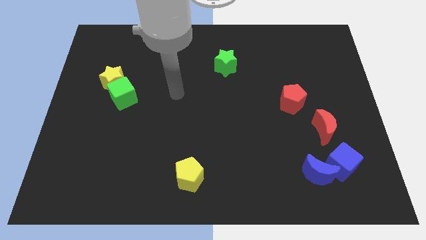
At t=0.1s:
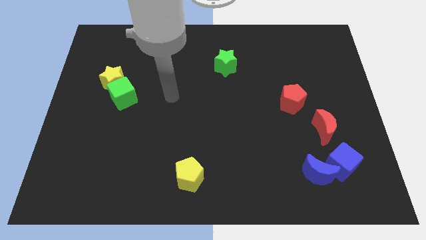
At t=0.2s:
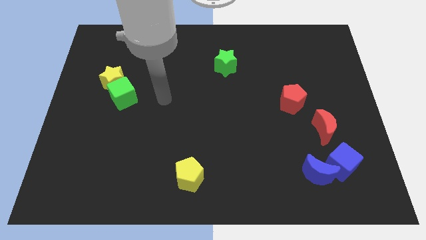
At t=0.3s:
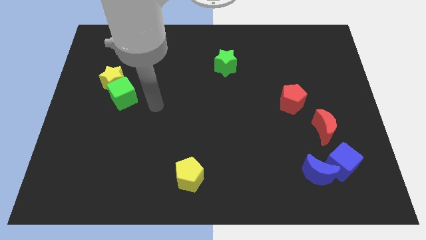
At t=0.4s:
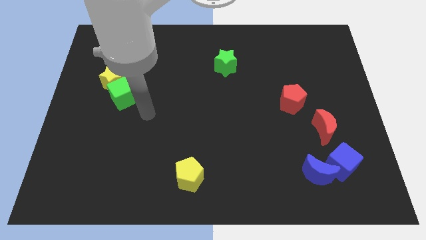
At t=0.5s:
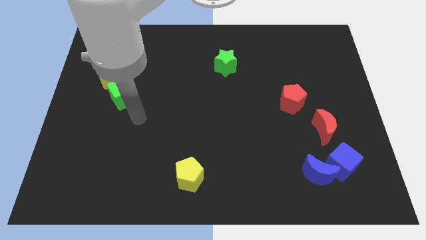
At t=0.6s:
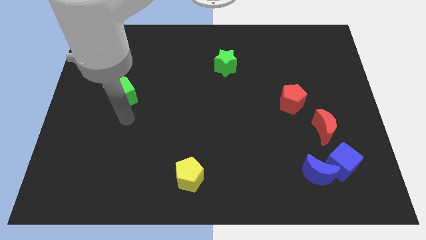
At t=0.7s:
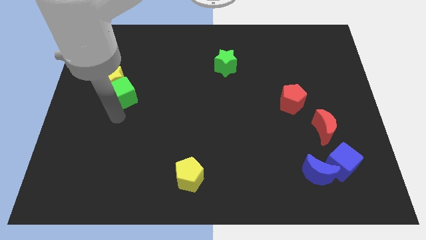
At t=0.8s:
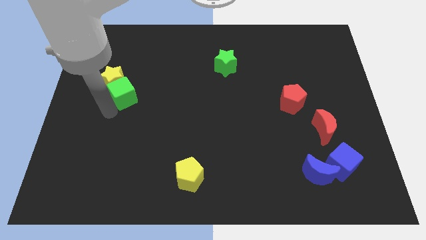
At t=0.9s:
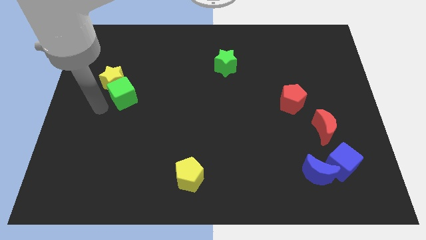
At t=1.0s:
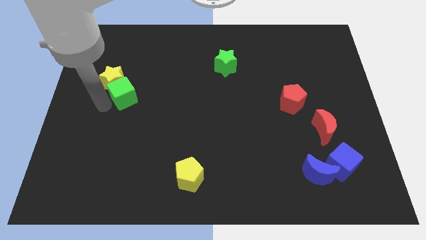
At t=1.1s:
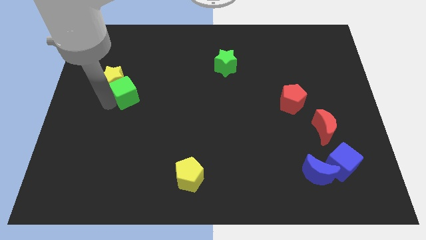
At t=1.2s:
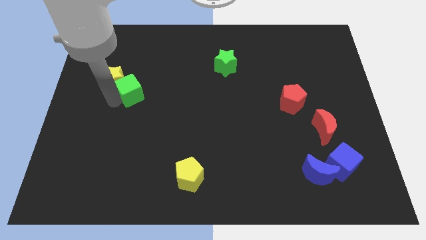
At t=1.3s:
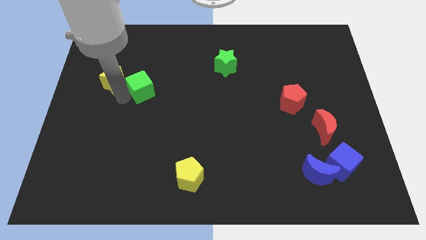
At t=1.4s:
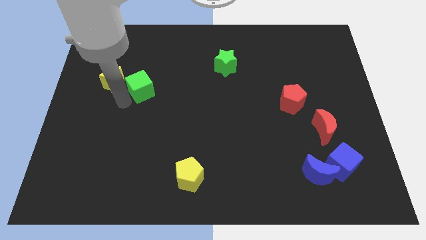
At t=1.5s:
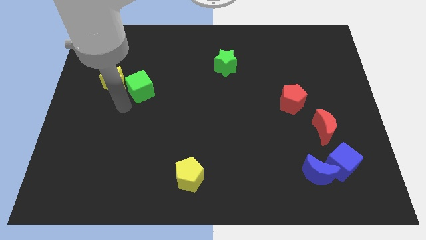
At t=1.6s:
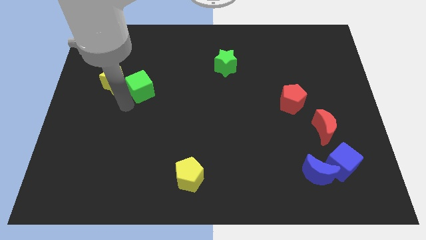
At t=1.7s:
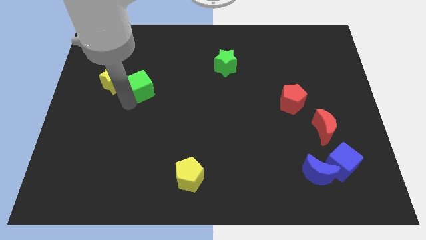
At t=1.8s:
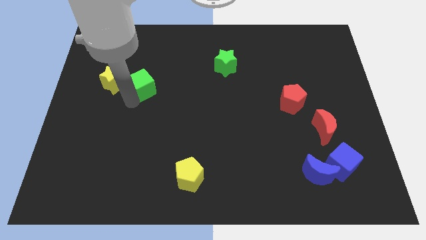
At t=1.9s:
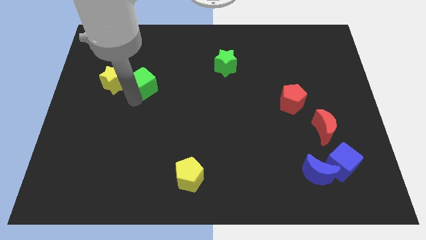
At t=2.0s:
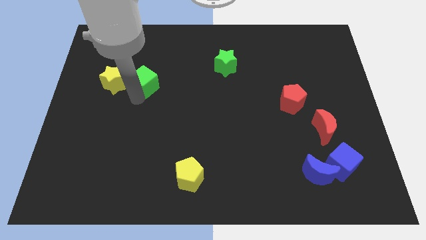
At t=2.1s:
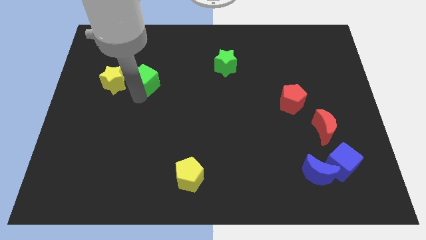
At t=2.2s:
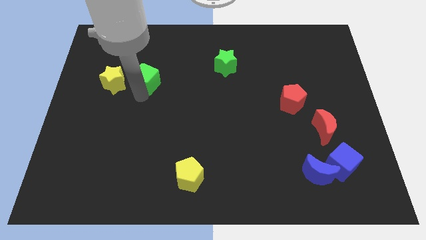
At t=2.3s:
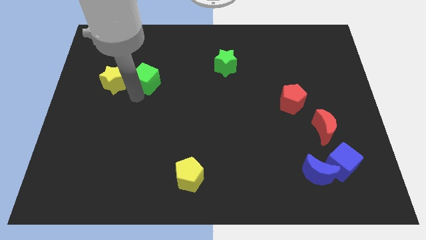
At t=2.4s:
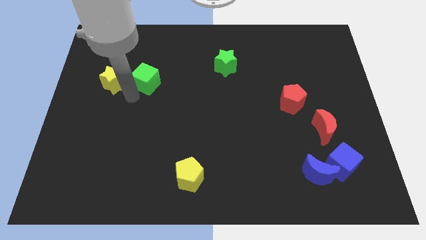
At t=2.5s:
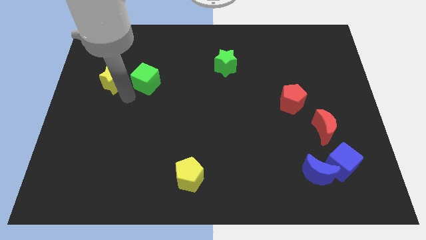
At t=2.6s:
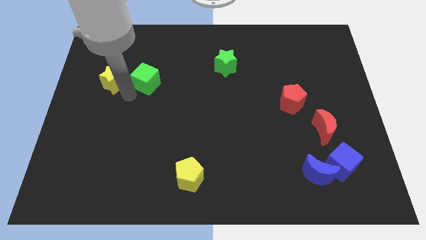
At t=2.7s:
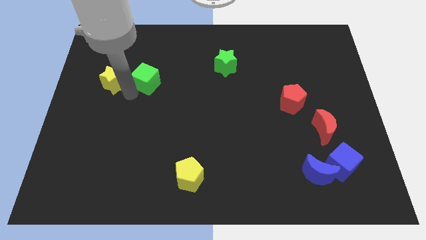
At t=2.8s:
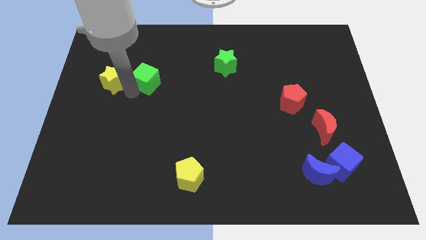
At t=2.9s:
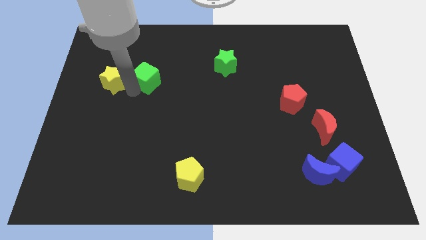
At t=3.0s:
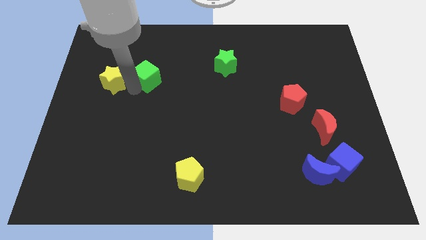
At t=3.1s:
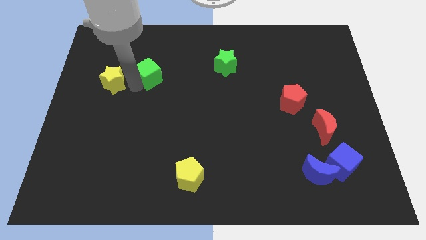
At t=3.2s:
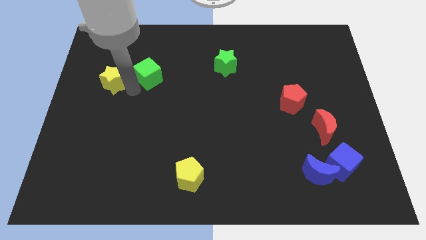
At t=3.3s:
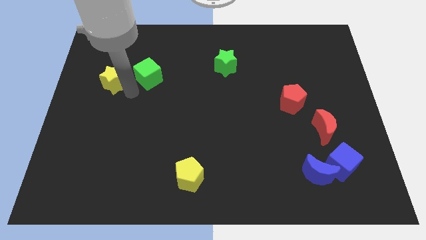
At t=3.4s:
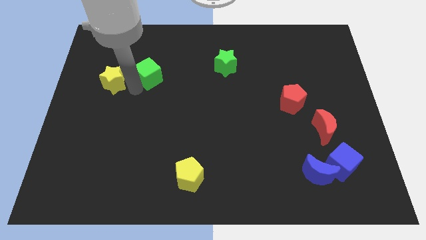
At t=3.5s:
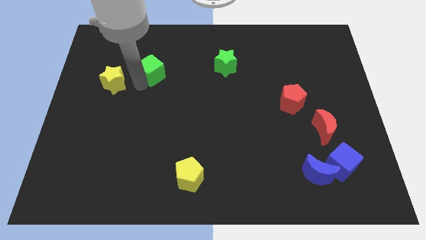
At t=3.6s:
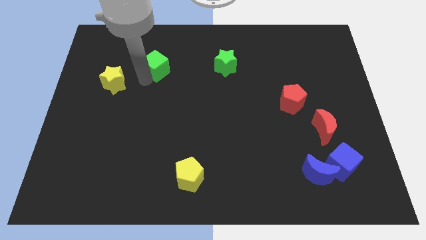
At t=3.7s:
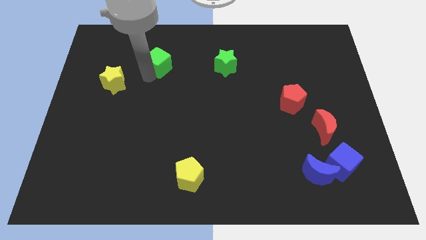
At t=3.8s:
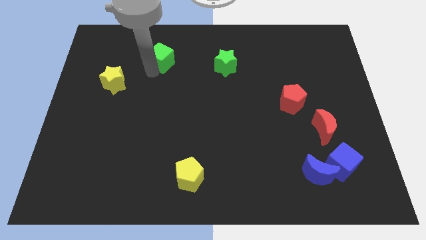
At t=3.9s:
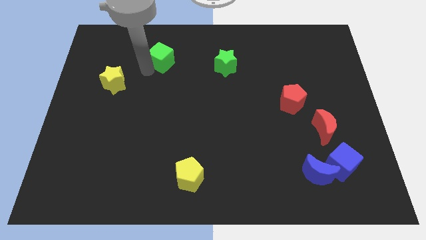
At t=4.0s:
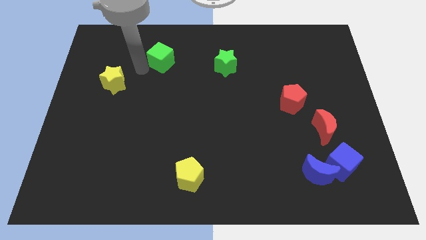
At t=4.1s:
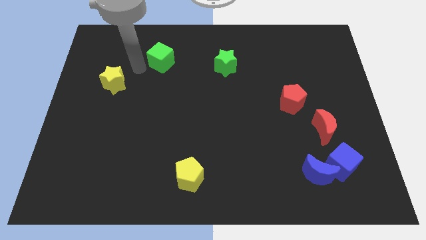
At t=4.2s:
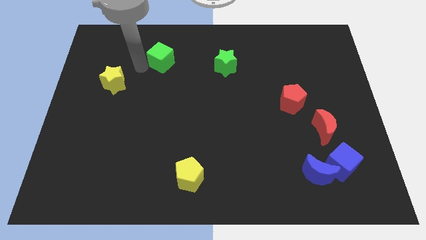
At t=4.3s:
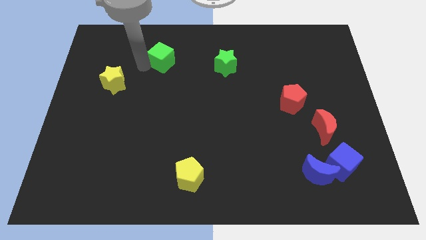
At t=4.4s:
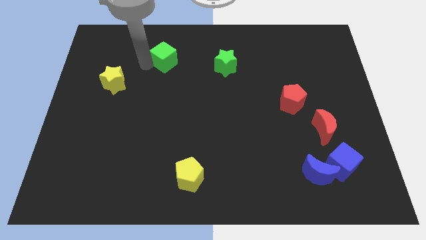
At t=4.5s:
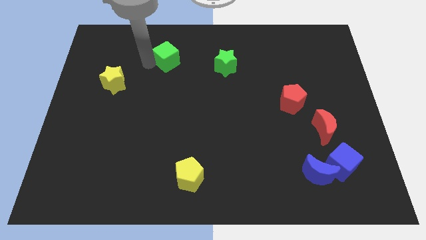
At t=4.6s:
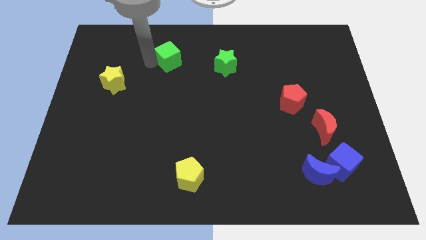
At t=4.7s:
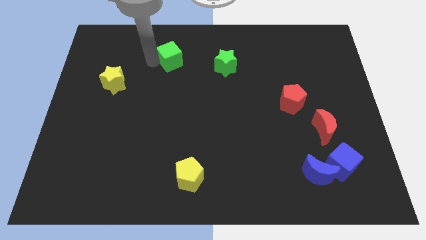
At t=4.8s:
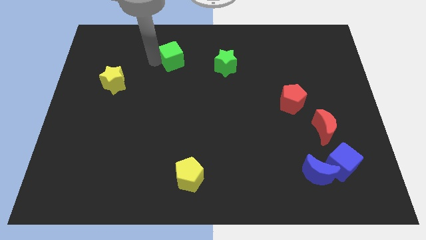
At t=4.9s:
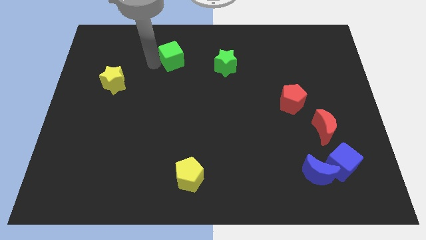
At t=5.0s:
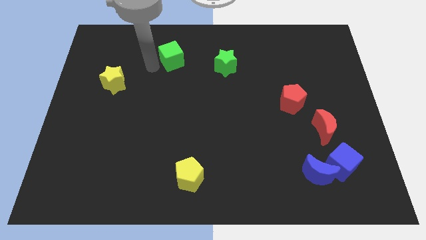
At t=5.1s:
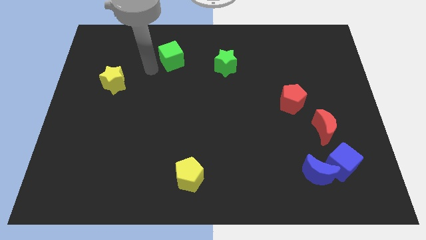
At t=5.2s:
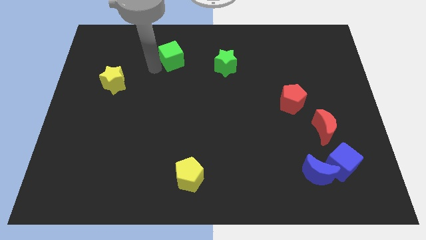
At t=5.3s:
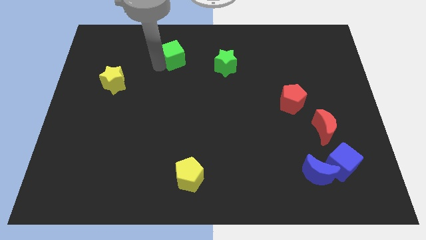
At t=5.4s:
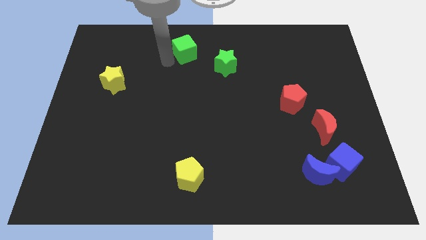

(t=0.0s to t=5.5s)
push the green cube to the top side
